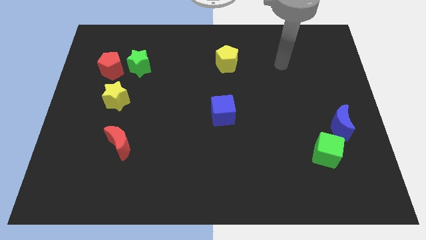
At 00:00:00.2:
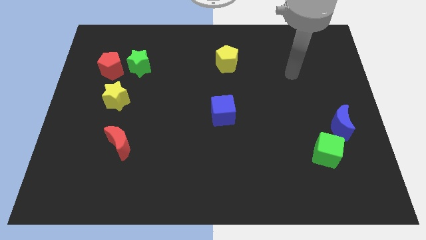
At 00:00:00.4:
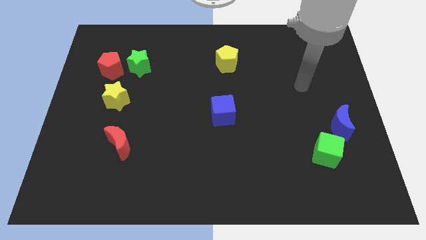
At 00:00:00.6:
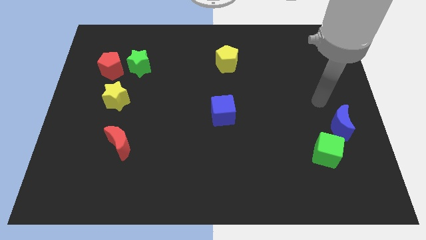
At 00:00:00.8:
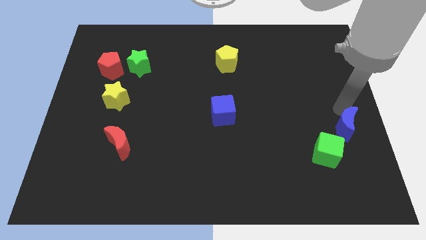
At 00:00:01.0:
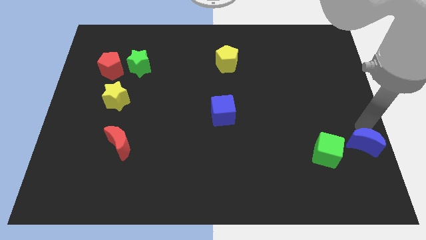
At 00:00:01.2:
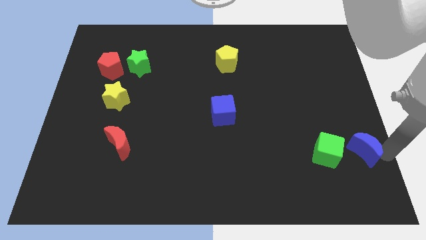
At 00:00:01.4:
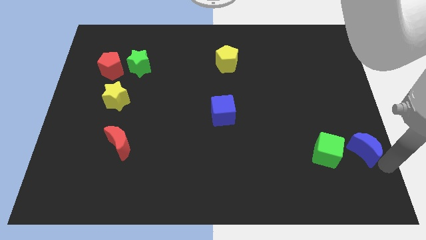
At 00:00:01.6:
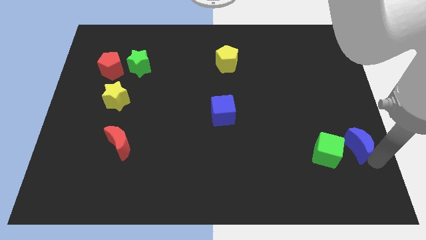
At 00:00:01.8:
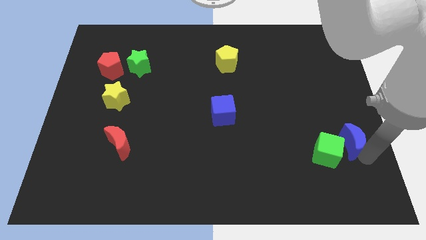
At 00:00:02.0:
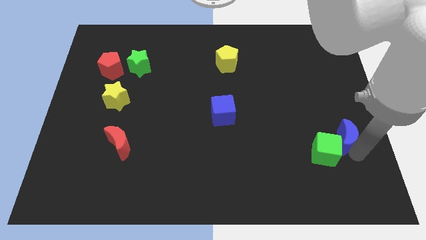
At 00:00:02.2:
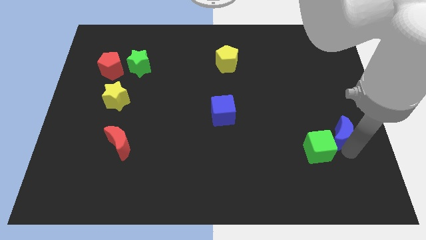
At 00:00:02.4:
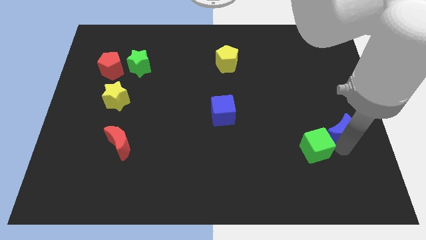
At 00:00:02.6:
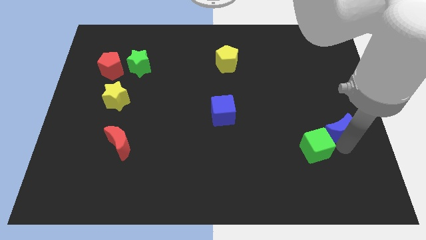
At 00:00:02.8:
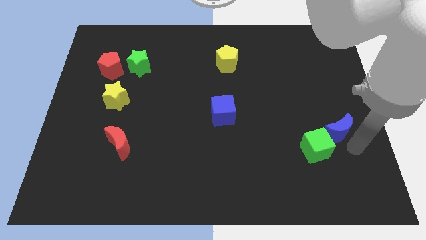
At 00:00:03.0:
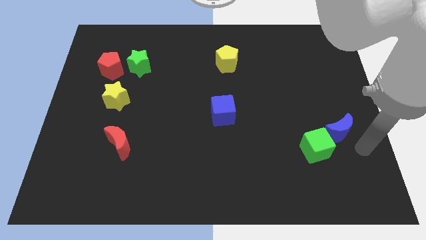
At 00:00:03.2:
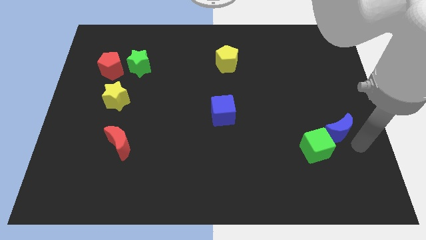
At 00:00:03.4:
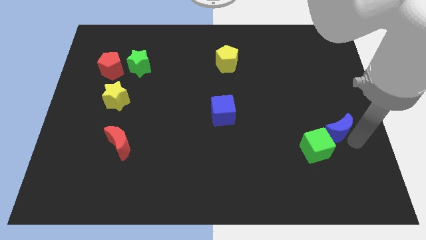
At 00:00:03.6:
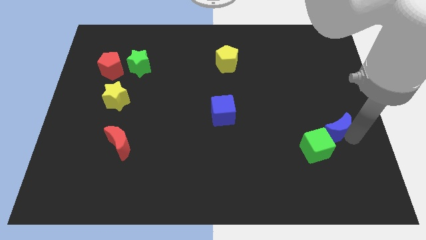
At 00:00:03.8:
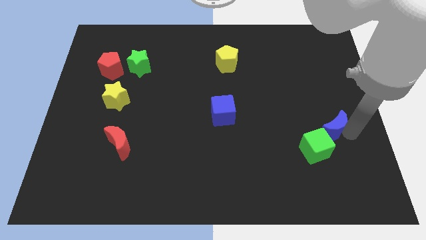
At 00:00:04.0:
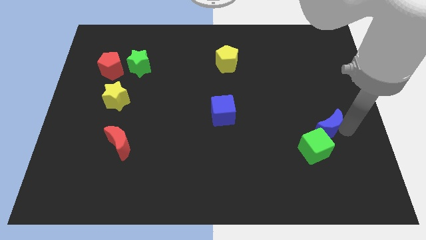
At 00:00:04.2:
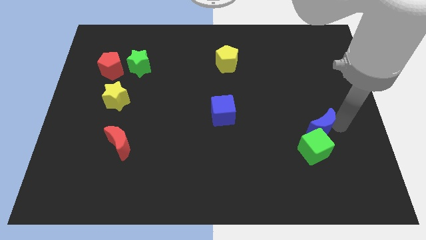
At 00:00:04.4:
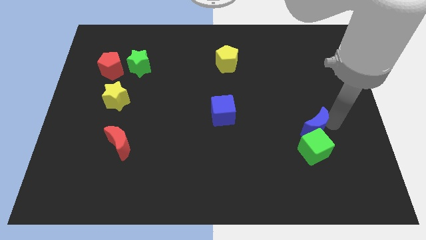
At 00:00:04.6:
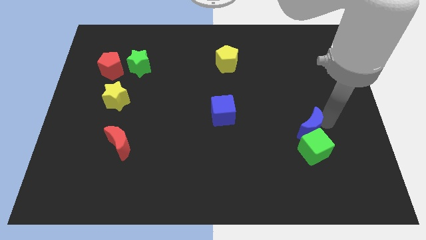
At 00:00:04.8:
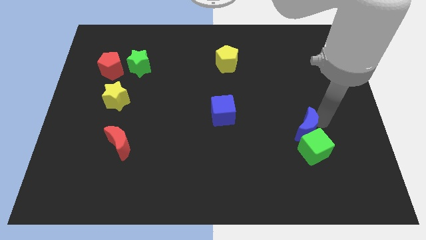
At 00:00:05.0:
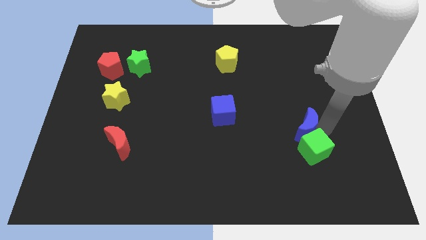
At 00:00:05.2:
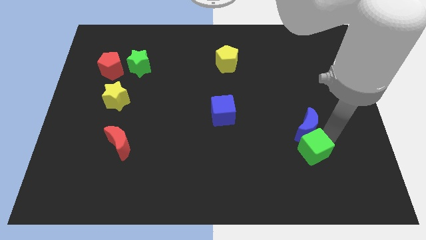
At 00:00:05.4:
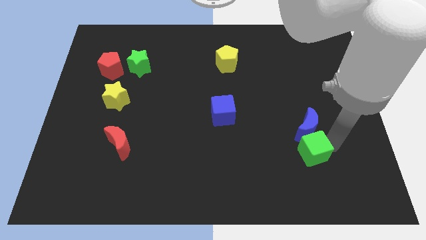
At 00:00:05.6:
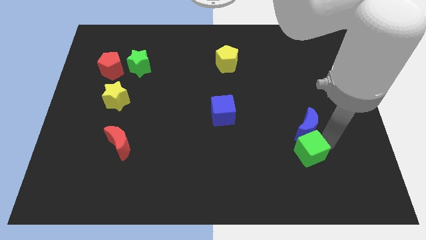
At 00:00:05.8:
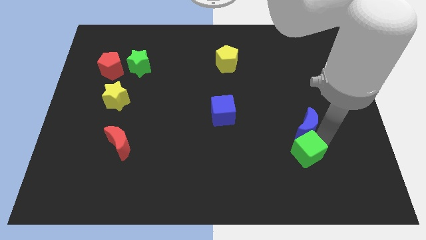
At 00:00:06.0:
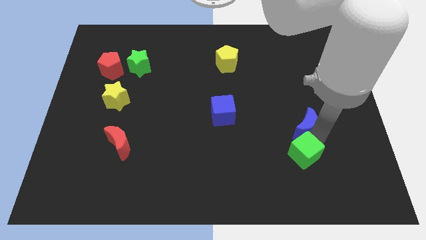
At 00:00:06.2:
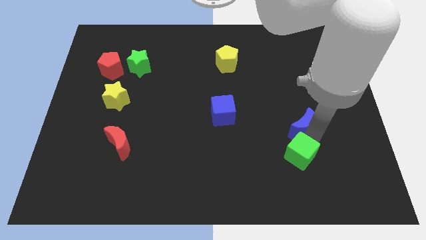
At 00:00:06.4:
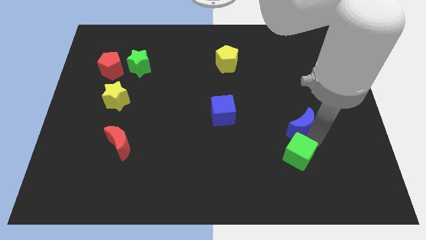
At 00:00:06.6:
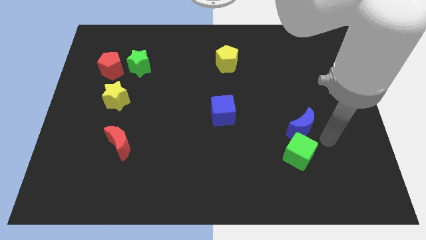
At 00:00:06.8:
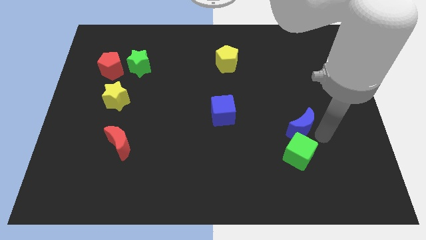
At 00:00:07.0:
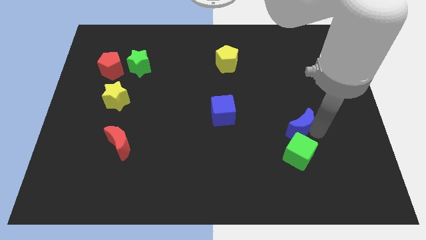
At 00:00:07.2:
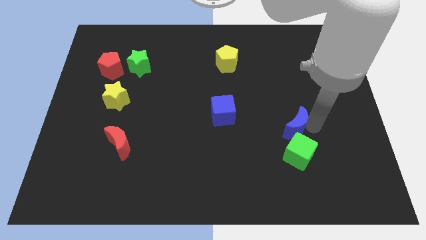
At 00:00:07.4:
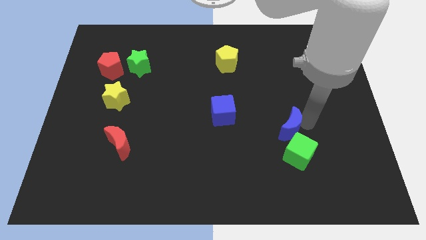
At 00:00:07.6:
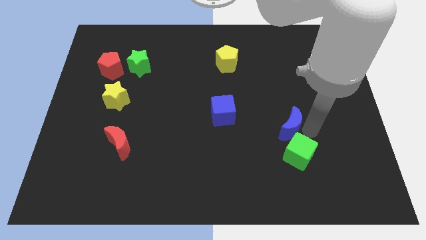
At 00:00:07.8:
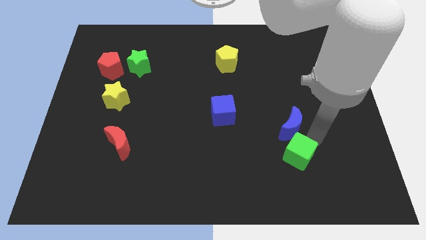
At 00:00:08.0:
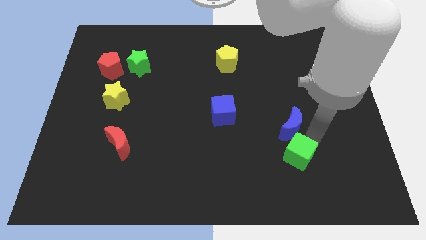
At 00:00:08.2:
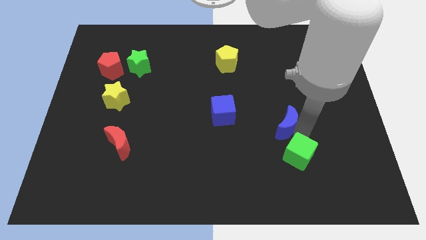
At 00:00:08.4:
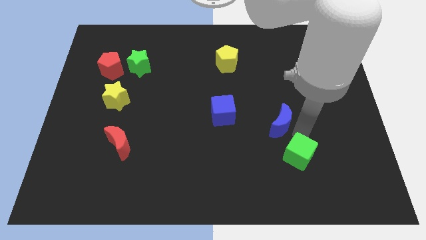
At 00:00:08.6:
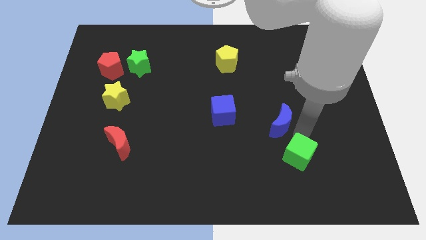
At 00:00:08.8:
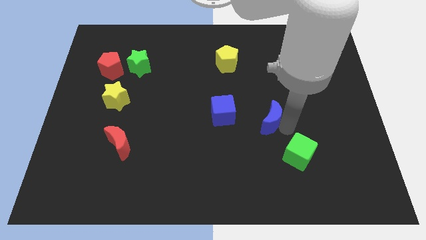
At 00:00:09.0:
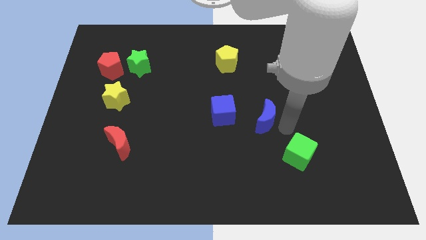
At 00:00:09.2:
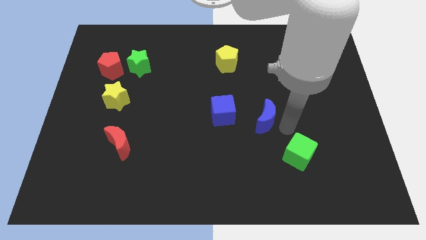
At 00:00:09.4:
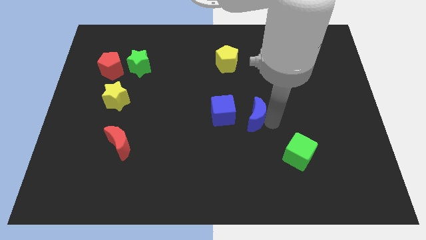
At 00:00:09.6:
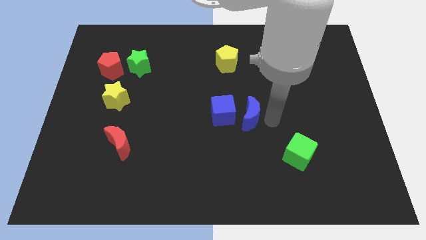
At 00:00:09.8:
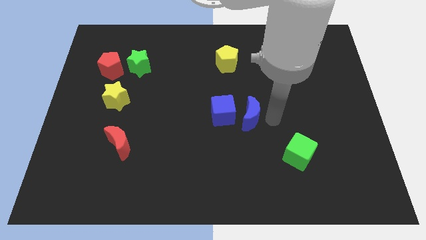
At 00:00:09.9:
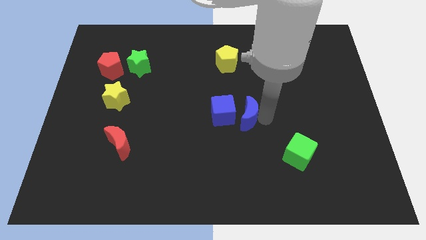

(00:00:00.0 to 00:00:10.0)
slide the blue moon to the blue cube
